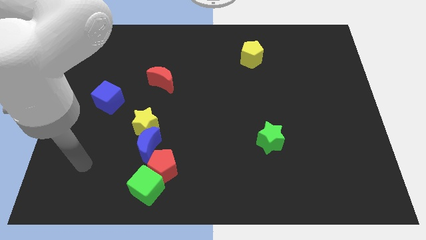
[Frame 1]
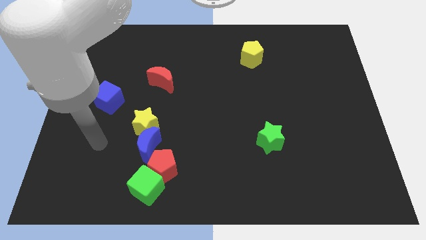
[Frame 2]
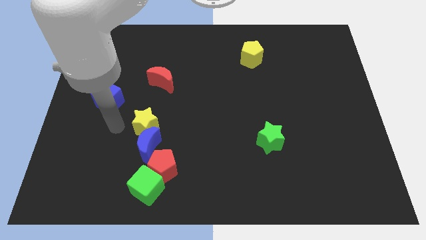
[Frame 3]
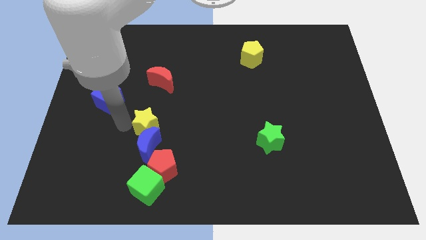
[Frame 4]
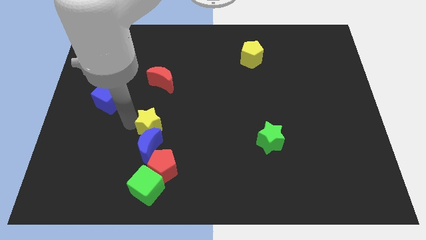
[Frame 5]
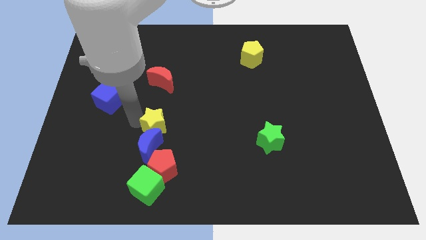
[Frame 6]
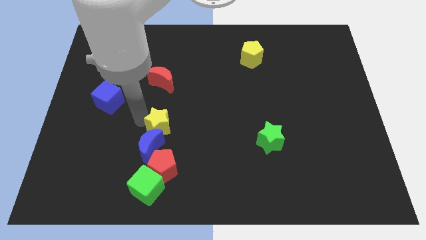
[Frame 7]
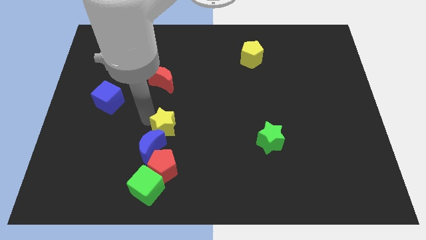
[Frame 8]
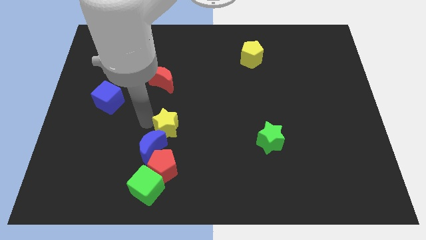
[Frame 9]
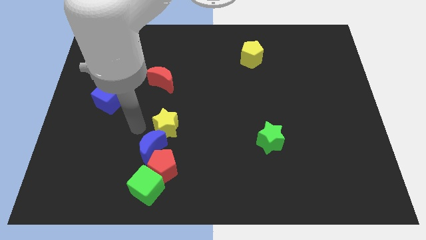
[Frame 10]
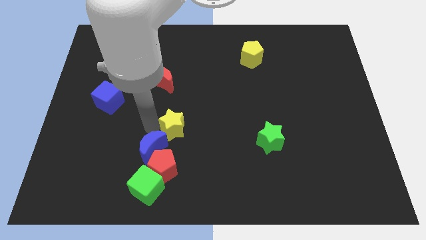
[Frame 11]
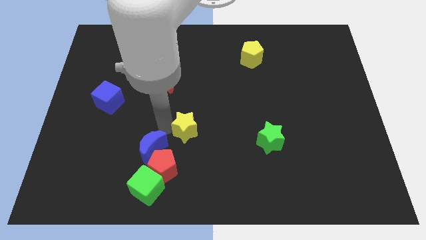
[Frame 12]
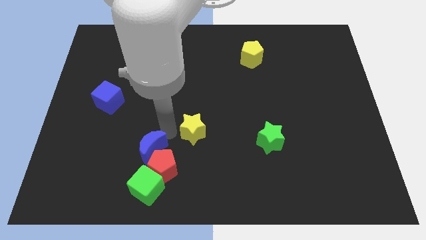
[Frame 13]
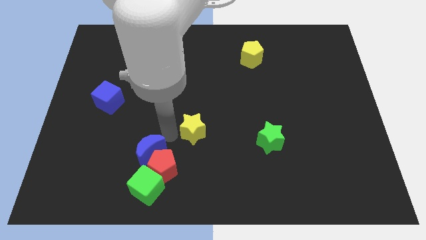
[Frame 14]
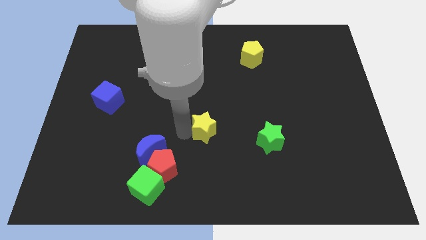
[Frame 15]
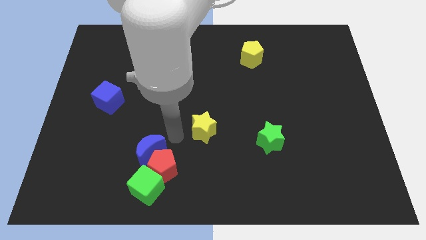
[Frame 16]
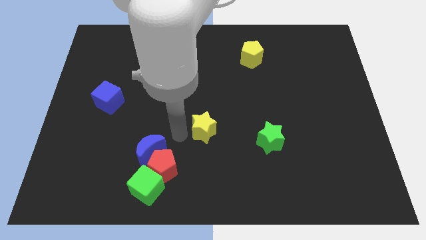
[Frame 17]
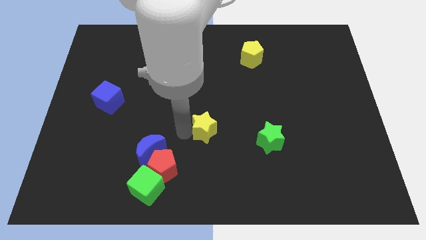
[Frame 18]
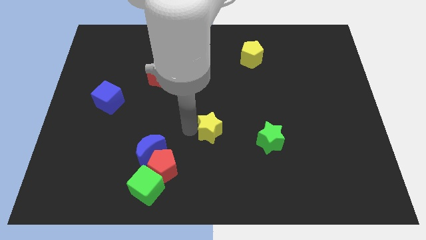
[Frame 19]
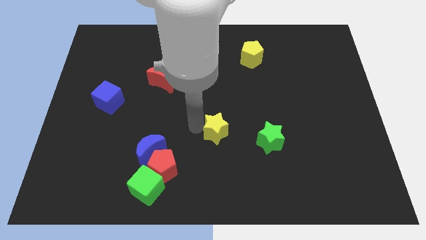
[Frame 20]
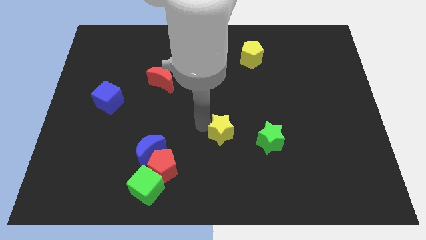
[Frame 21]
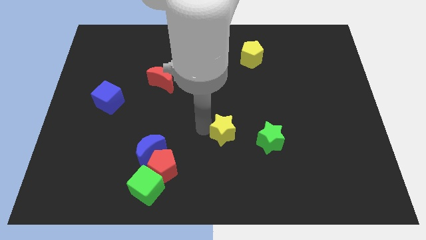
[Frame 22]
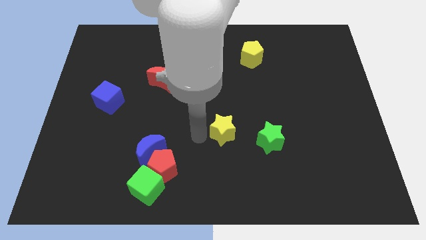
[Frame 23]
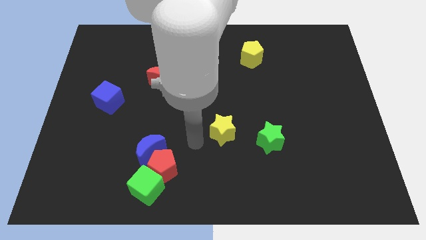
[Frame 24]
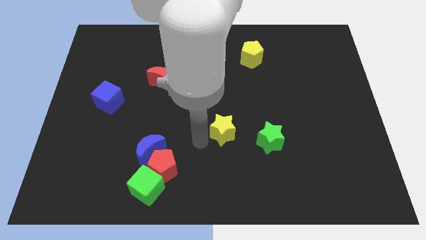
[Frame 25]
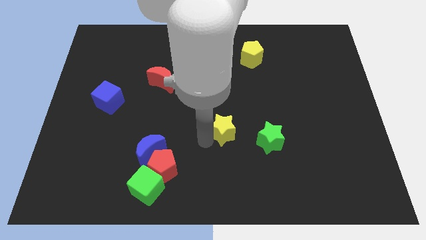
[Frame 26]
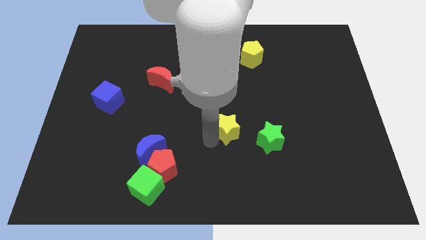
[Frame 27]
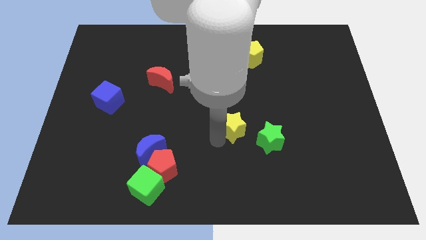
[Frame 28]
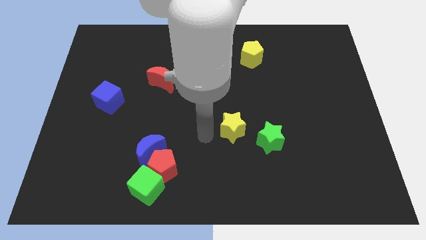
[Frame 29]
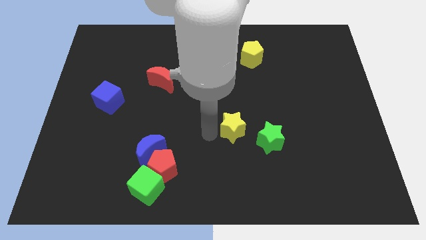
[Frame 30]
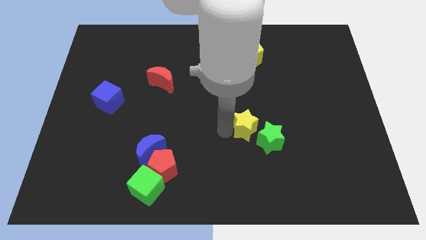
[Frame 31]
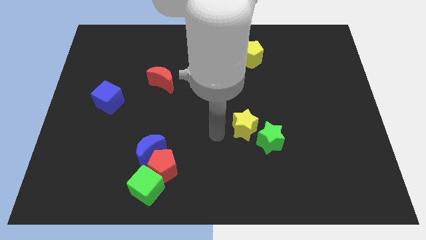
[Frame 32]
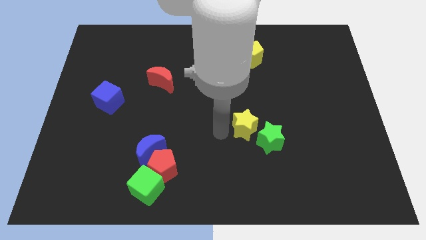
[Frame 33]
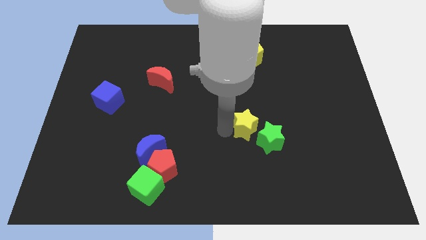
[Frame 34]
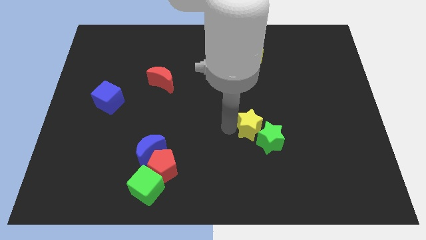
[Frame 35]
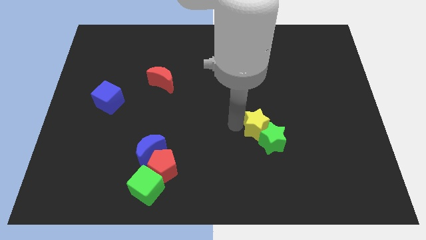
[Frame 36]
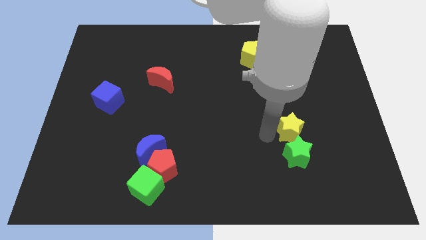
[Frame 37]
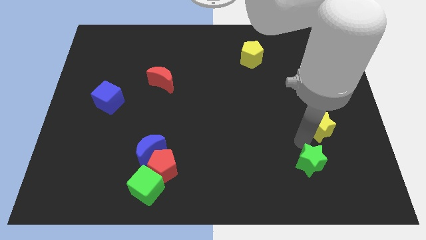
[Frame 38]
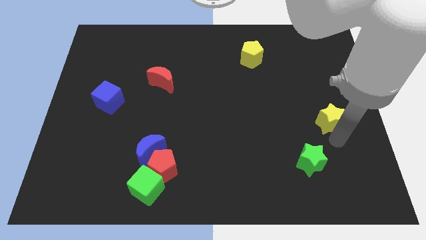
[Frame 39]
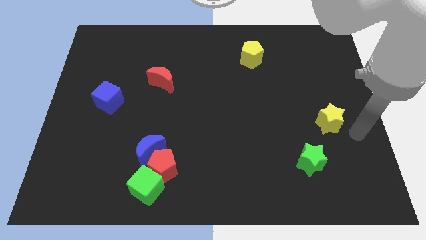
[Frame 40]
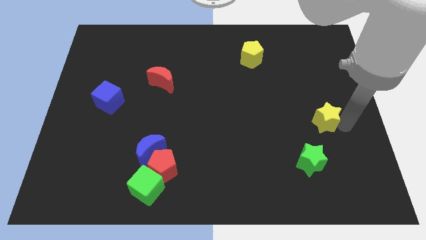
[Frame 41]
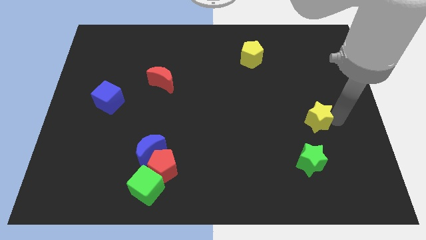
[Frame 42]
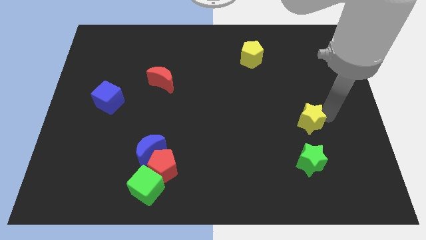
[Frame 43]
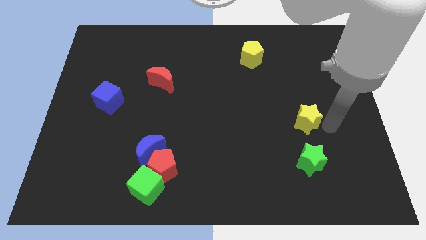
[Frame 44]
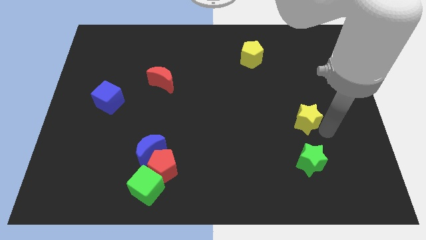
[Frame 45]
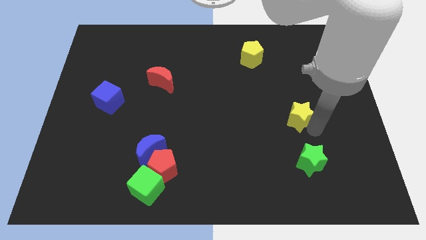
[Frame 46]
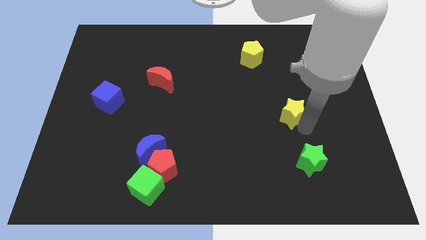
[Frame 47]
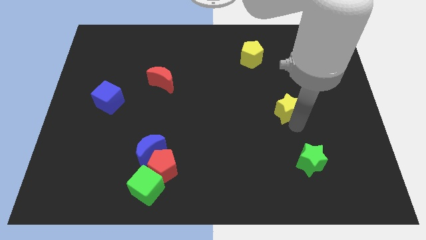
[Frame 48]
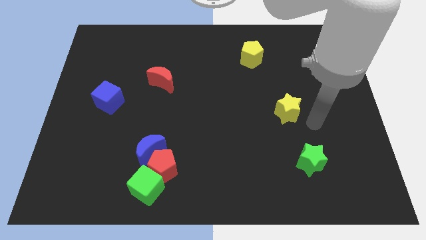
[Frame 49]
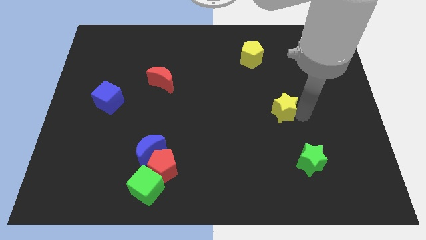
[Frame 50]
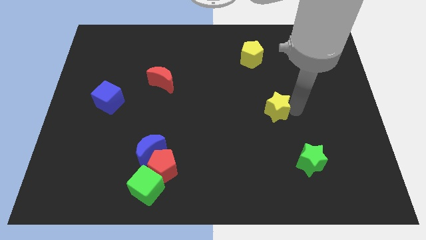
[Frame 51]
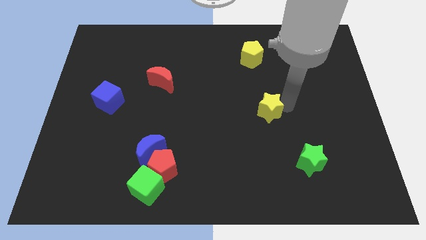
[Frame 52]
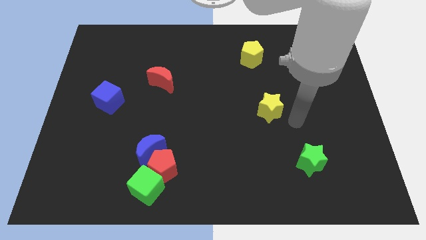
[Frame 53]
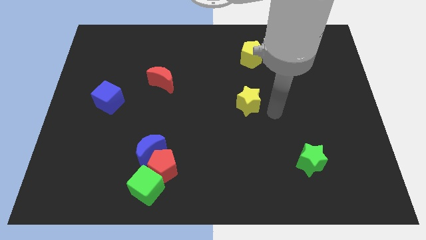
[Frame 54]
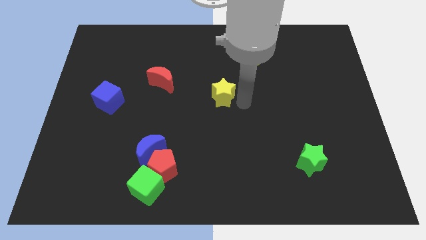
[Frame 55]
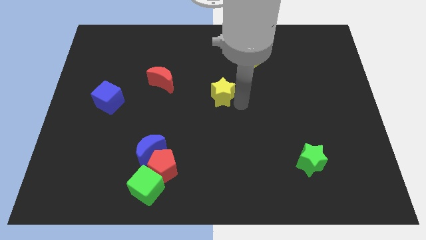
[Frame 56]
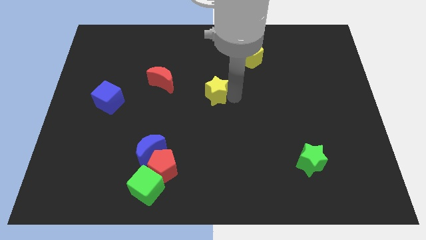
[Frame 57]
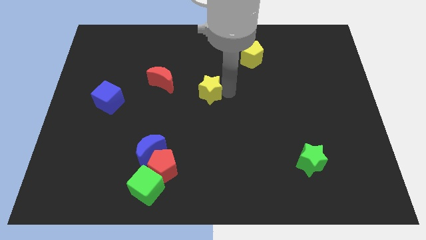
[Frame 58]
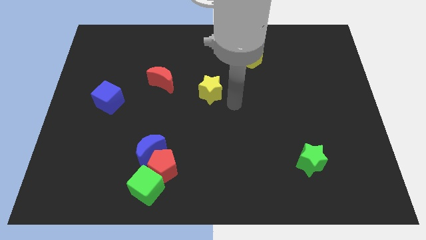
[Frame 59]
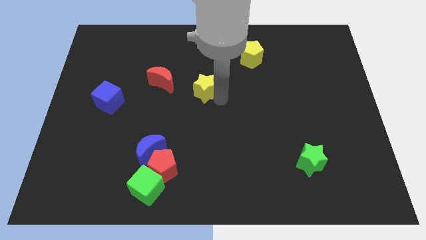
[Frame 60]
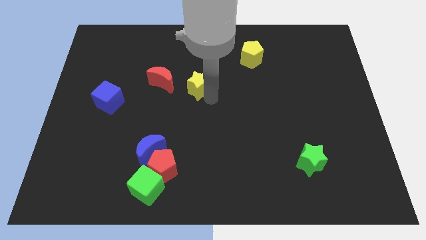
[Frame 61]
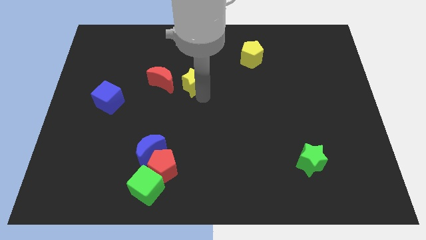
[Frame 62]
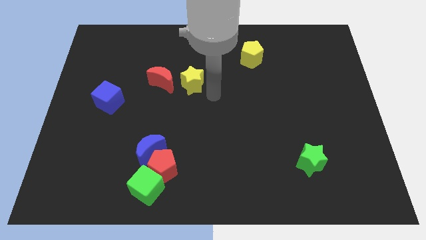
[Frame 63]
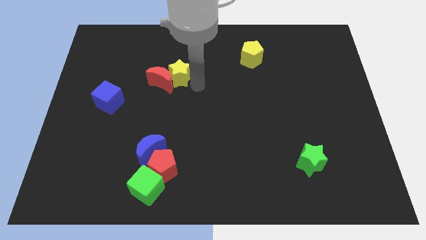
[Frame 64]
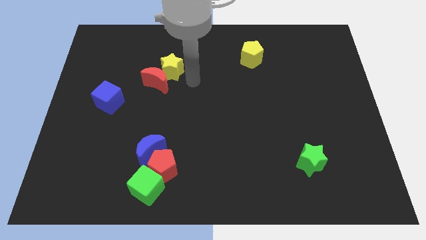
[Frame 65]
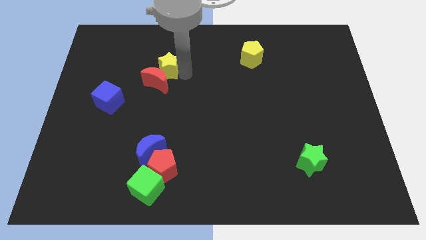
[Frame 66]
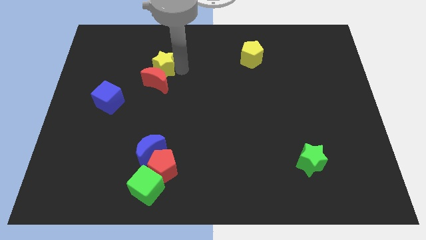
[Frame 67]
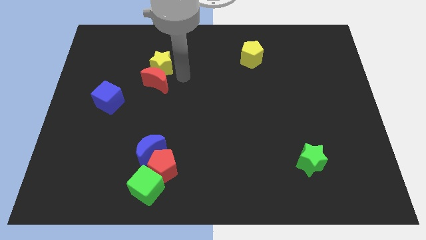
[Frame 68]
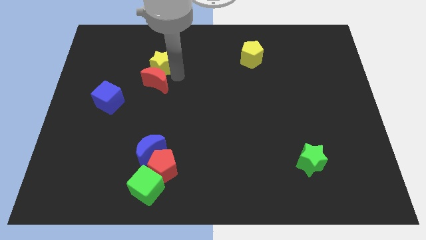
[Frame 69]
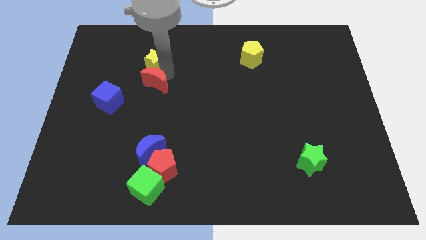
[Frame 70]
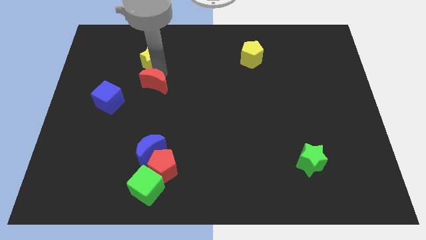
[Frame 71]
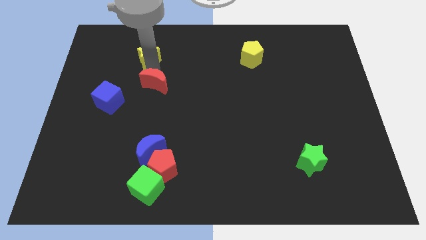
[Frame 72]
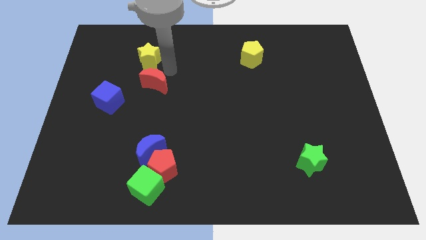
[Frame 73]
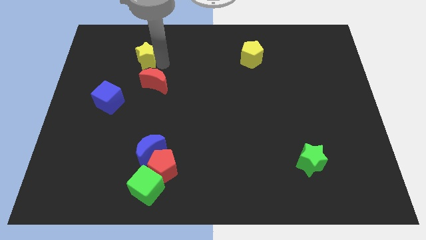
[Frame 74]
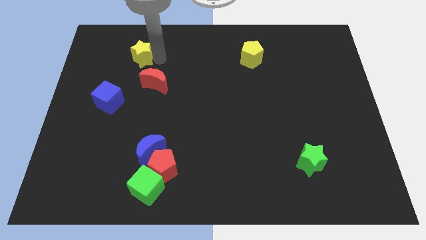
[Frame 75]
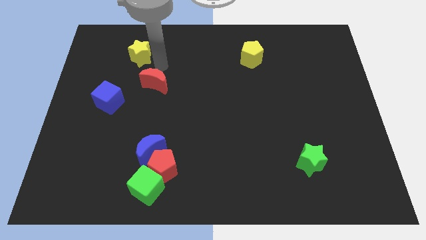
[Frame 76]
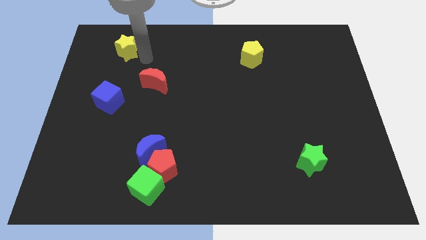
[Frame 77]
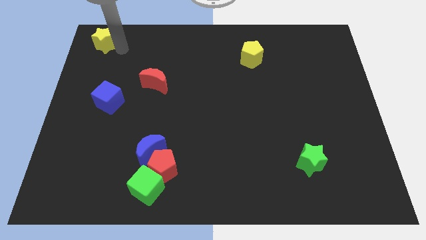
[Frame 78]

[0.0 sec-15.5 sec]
slide the yellow star to the top left of the board
